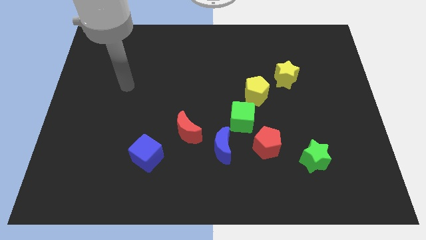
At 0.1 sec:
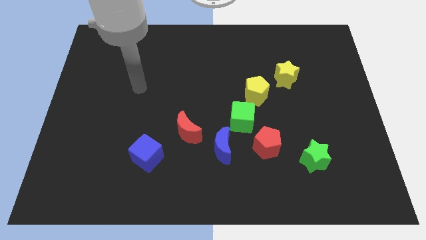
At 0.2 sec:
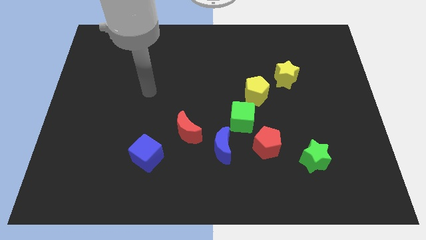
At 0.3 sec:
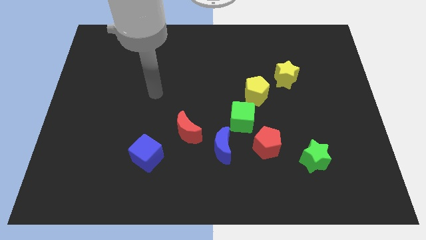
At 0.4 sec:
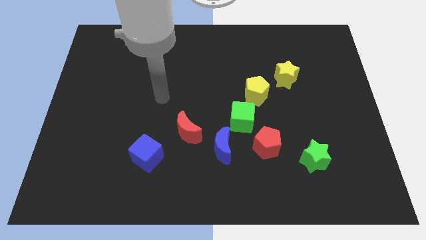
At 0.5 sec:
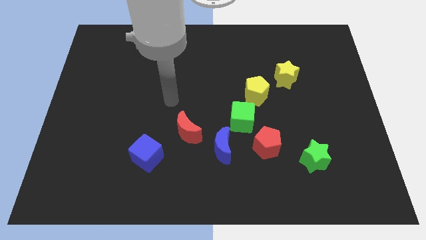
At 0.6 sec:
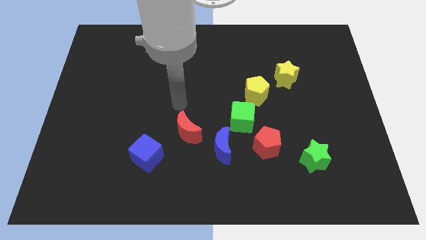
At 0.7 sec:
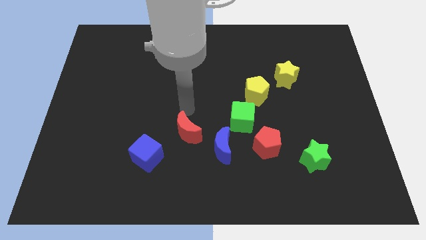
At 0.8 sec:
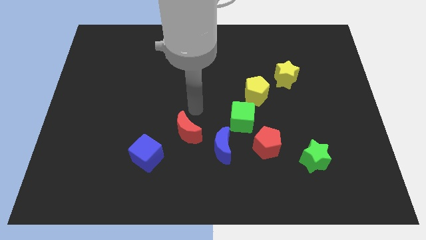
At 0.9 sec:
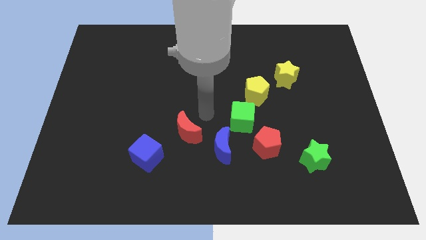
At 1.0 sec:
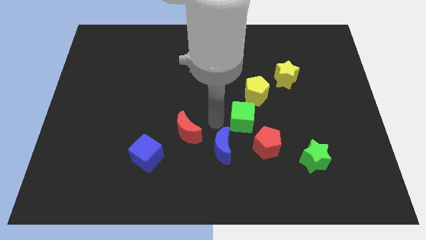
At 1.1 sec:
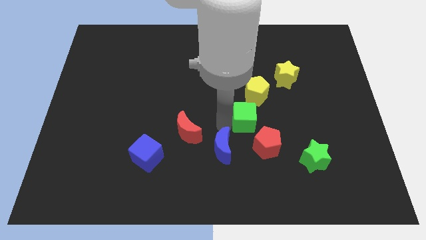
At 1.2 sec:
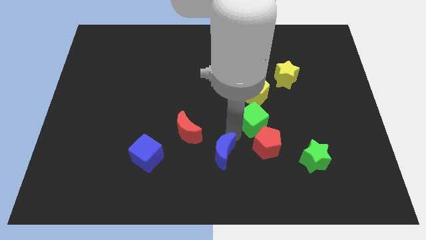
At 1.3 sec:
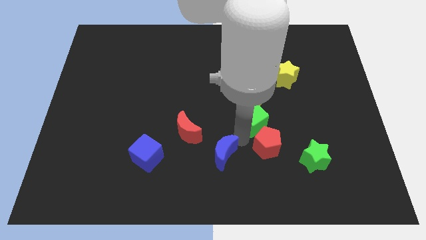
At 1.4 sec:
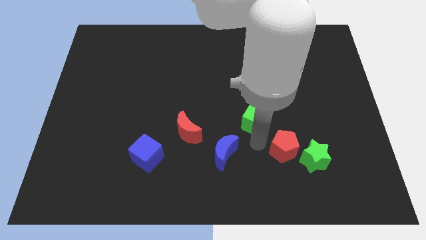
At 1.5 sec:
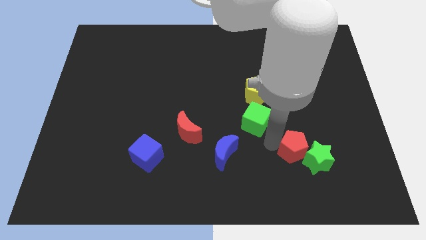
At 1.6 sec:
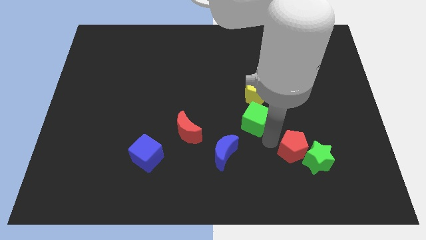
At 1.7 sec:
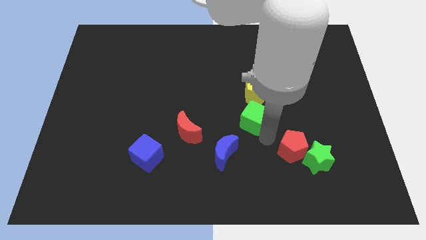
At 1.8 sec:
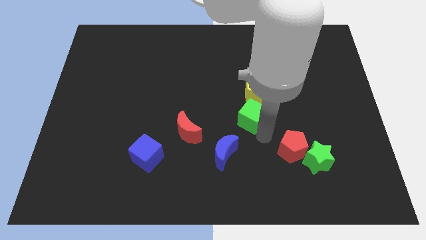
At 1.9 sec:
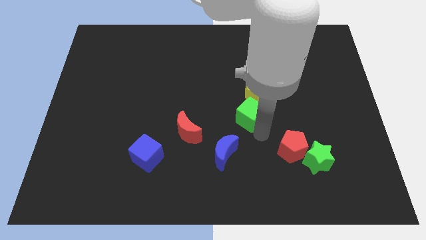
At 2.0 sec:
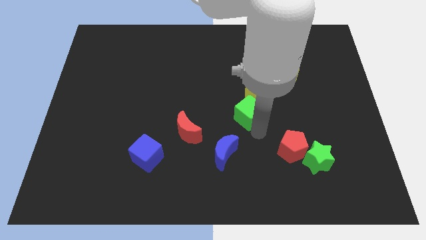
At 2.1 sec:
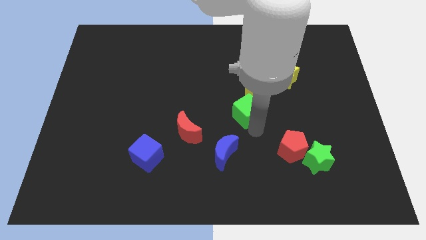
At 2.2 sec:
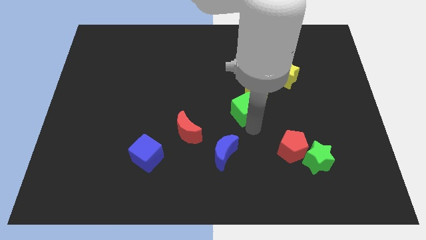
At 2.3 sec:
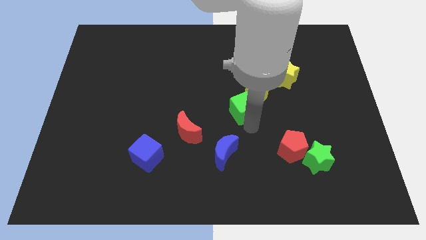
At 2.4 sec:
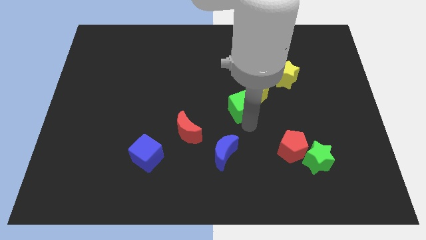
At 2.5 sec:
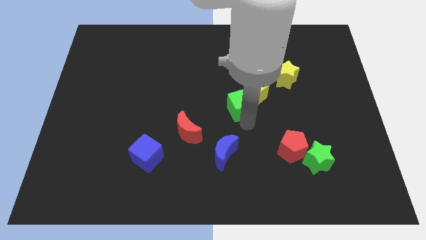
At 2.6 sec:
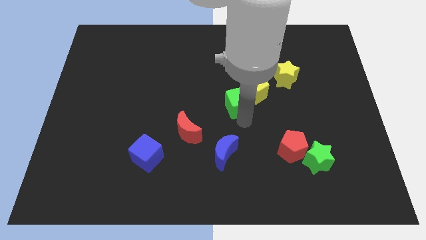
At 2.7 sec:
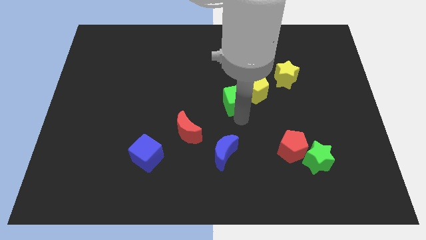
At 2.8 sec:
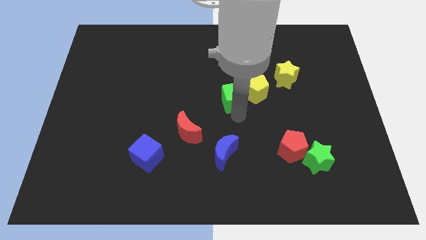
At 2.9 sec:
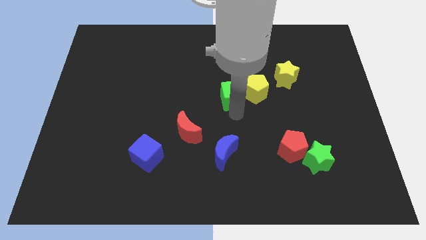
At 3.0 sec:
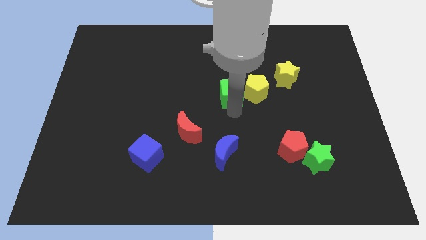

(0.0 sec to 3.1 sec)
move the green cube up a little bit

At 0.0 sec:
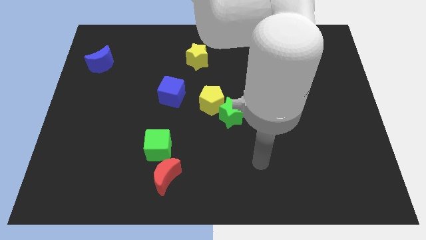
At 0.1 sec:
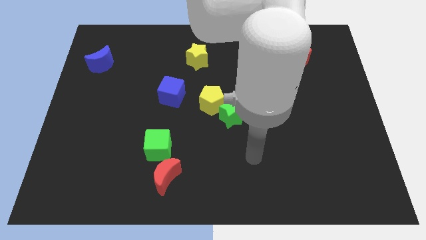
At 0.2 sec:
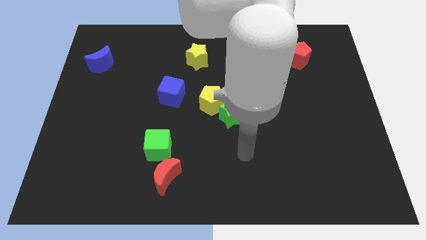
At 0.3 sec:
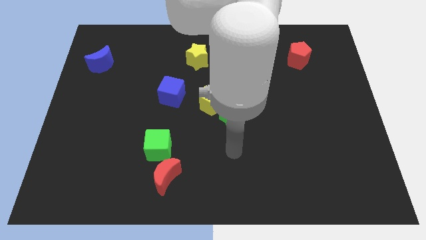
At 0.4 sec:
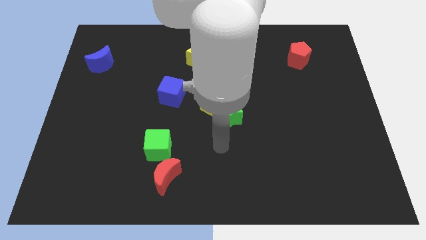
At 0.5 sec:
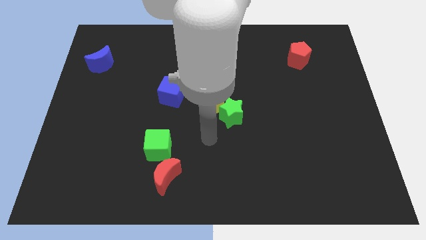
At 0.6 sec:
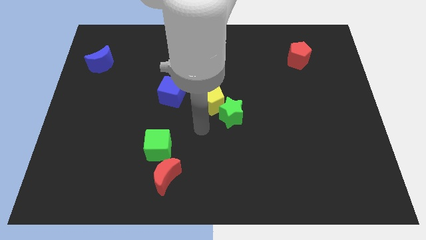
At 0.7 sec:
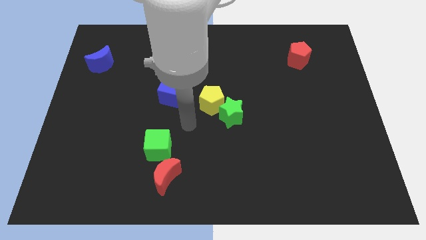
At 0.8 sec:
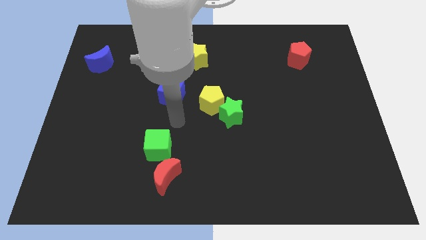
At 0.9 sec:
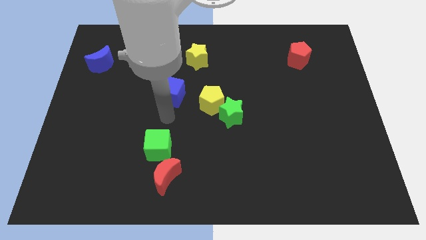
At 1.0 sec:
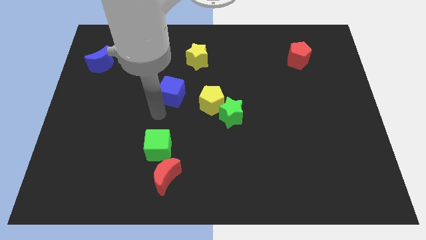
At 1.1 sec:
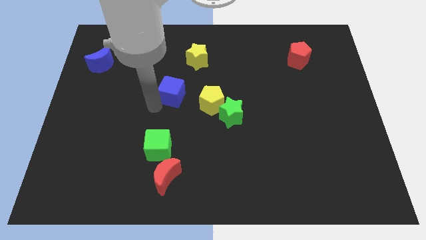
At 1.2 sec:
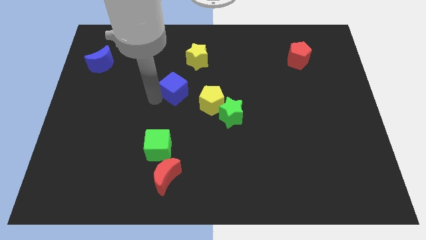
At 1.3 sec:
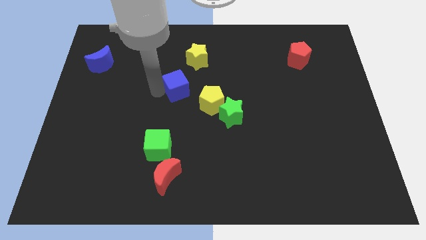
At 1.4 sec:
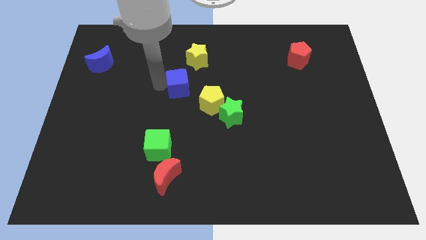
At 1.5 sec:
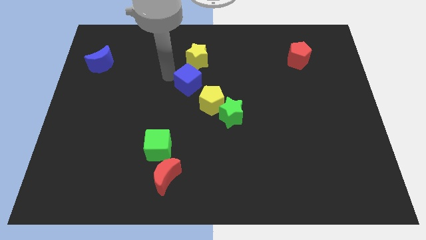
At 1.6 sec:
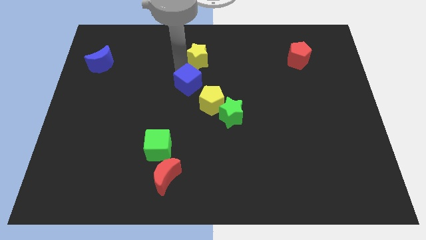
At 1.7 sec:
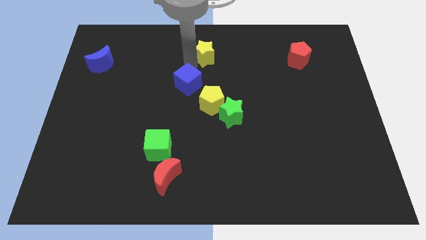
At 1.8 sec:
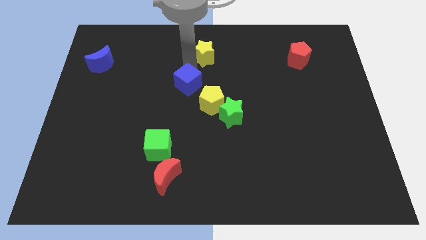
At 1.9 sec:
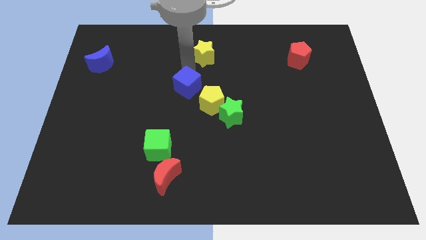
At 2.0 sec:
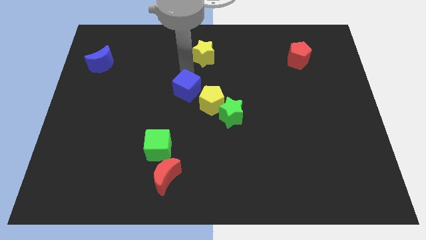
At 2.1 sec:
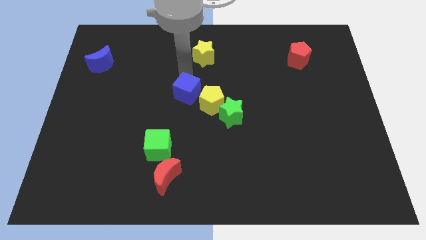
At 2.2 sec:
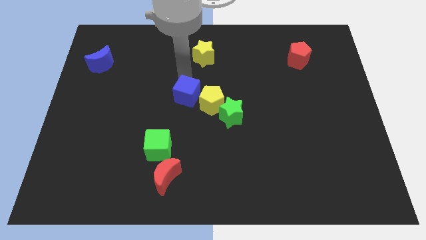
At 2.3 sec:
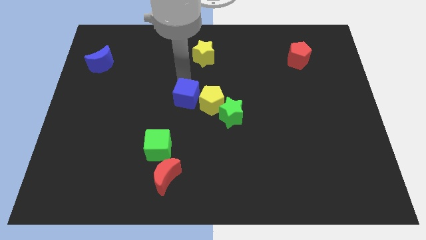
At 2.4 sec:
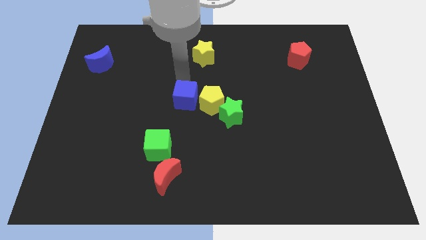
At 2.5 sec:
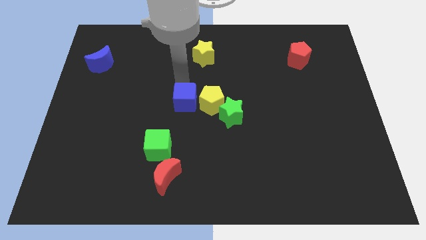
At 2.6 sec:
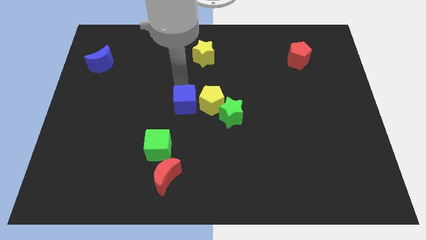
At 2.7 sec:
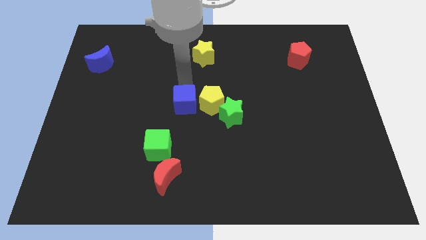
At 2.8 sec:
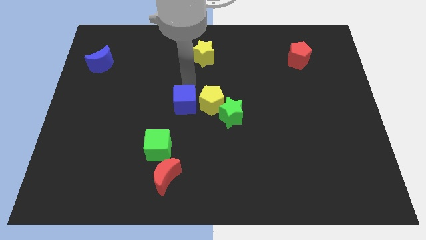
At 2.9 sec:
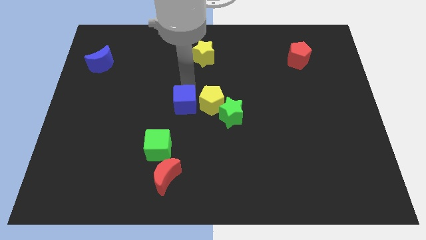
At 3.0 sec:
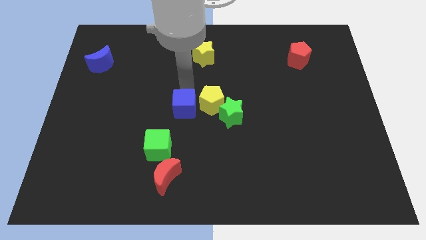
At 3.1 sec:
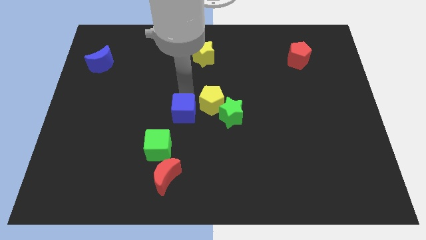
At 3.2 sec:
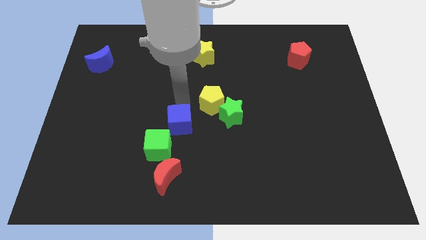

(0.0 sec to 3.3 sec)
slide the blue cube diagonally downwards and to the right a bit

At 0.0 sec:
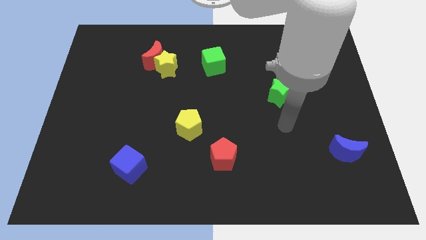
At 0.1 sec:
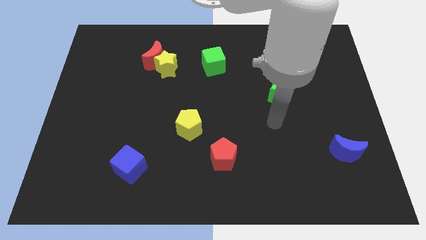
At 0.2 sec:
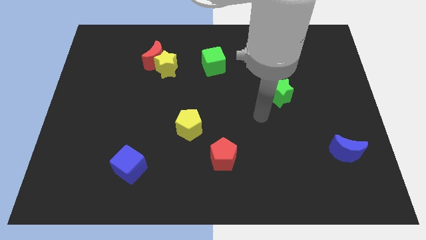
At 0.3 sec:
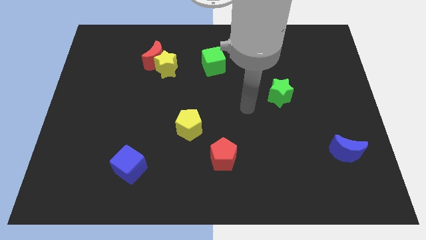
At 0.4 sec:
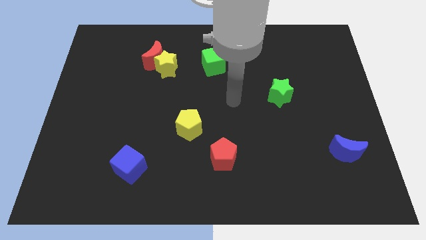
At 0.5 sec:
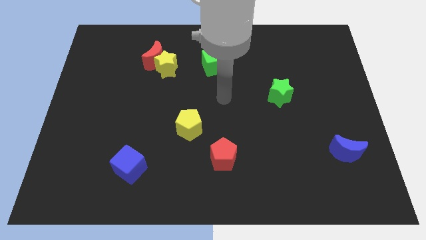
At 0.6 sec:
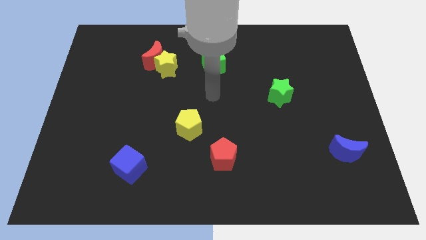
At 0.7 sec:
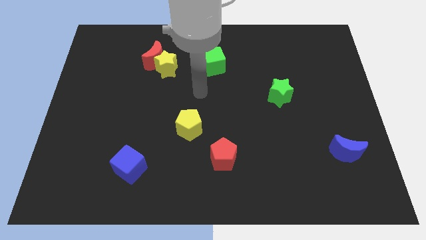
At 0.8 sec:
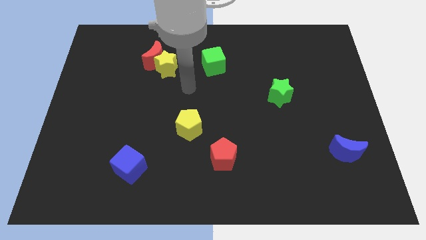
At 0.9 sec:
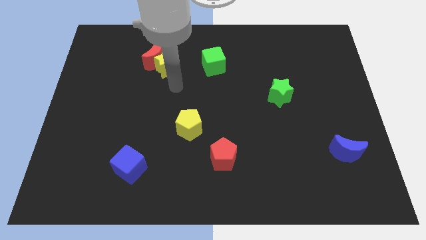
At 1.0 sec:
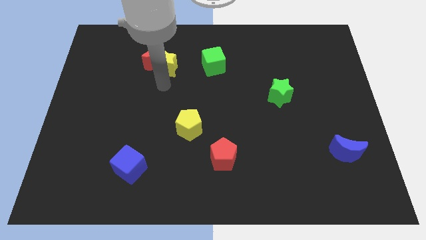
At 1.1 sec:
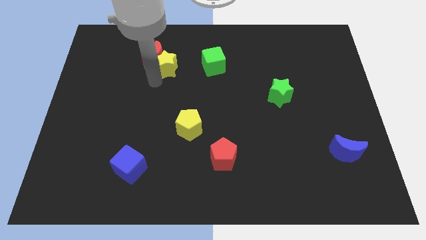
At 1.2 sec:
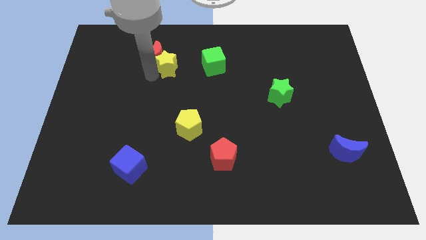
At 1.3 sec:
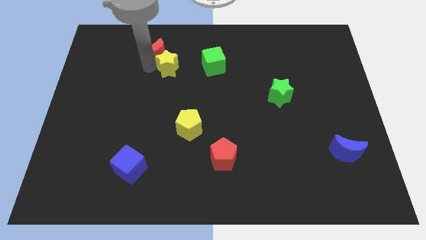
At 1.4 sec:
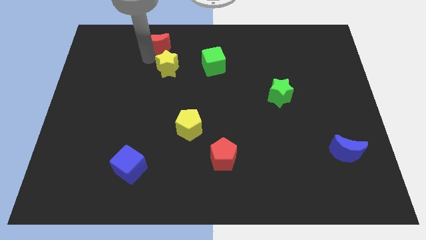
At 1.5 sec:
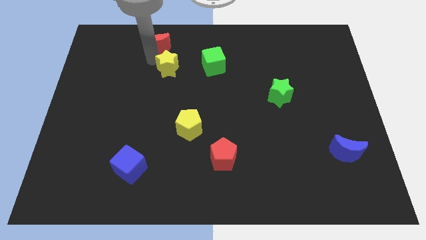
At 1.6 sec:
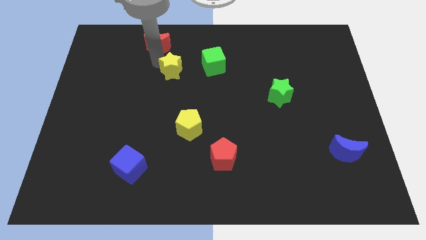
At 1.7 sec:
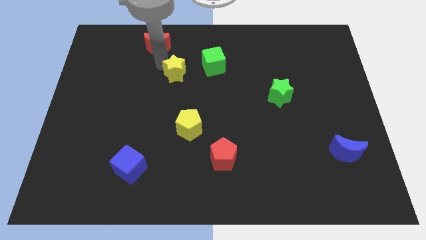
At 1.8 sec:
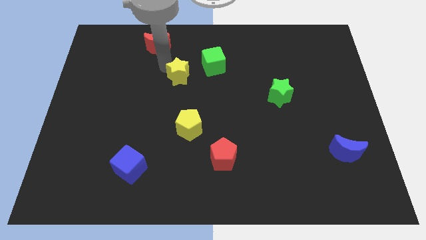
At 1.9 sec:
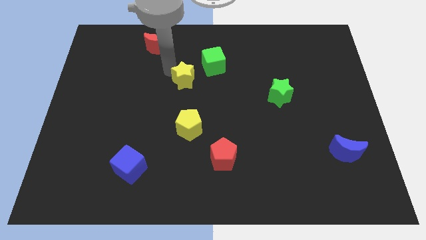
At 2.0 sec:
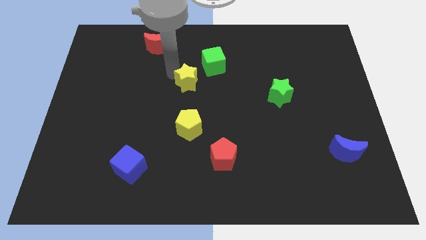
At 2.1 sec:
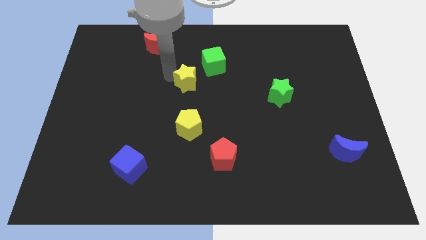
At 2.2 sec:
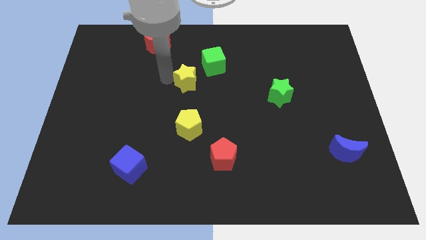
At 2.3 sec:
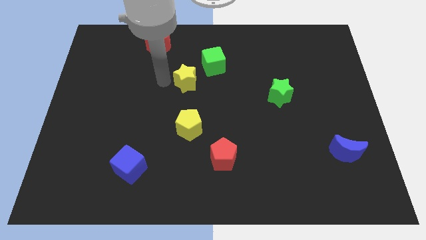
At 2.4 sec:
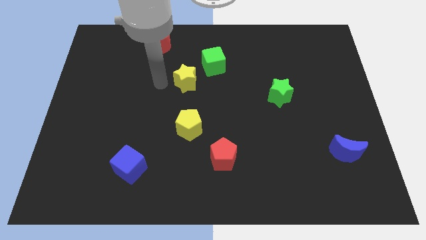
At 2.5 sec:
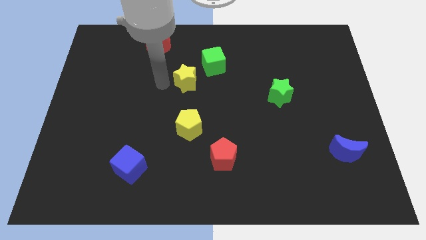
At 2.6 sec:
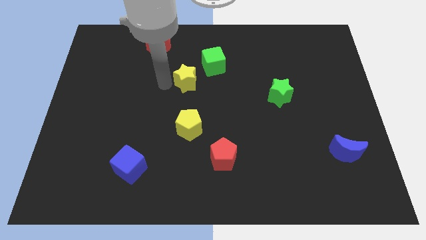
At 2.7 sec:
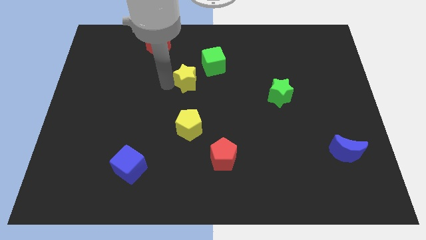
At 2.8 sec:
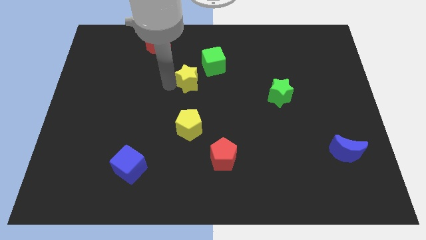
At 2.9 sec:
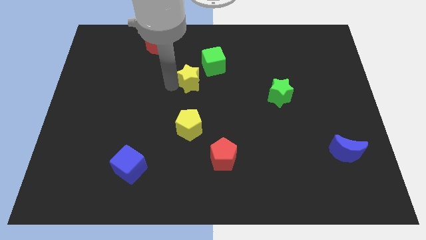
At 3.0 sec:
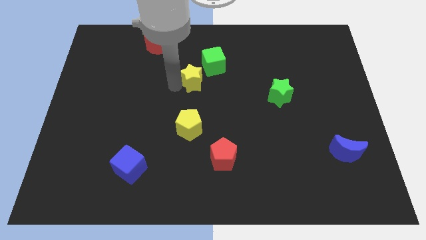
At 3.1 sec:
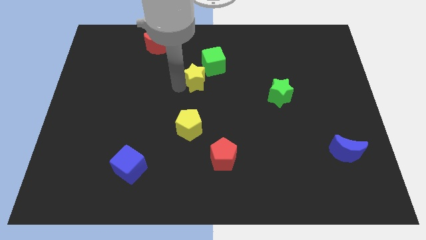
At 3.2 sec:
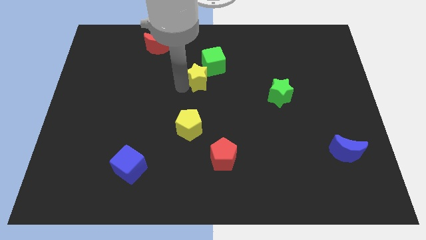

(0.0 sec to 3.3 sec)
move the yellow star to the right a bit
